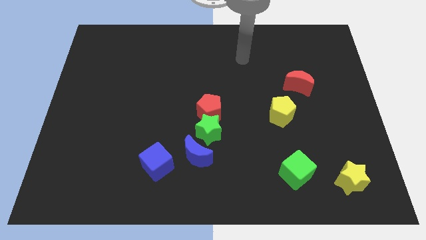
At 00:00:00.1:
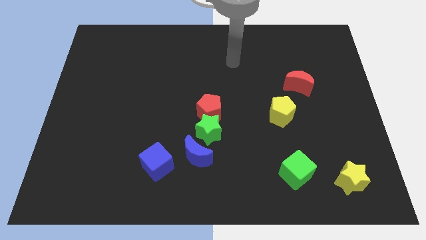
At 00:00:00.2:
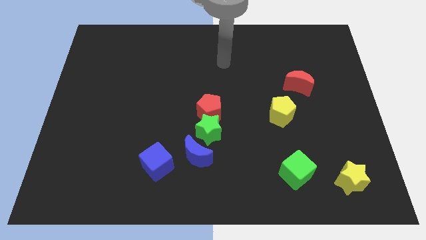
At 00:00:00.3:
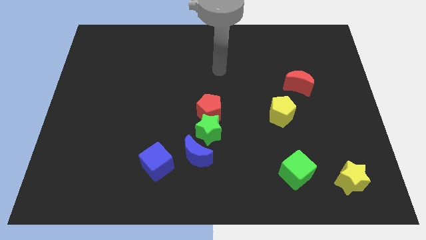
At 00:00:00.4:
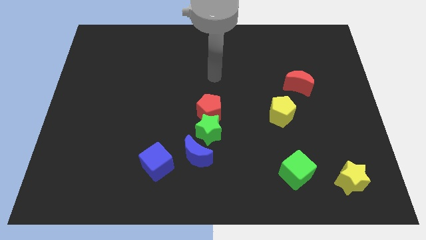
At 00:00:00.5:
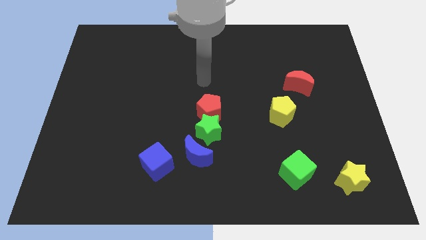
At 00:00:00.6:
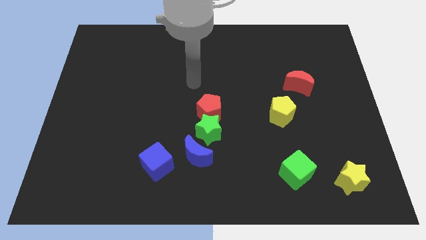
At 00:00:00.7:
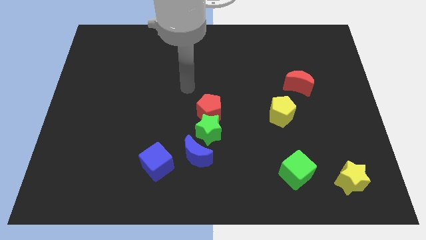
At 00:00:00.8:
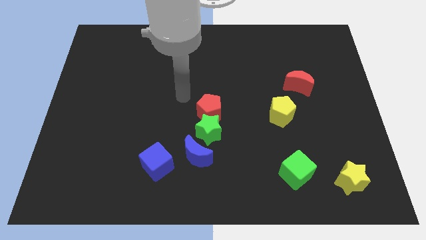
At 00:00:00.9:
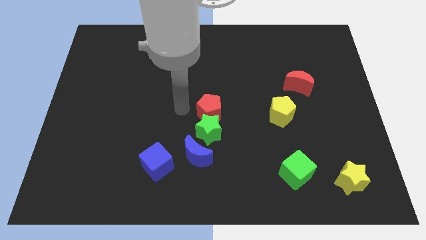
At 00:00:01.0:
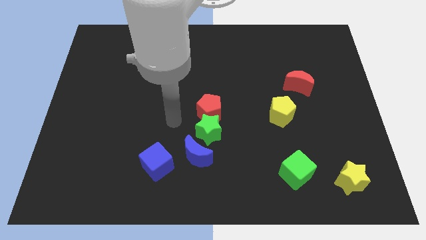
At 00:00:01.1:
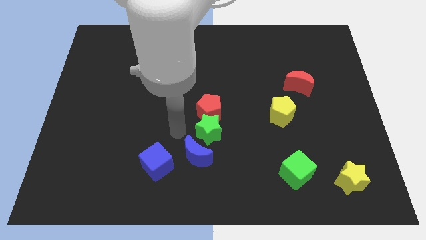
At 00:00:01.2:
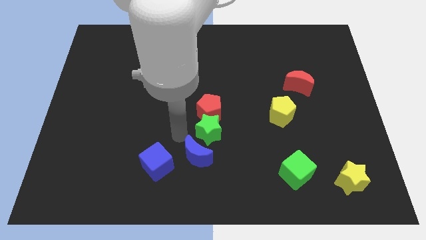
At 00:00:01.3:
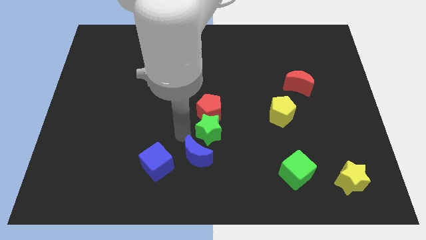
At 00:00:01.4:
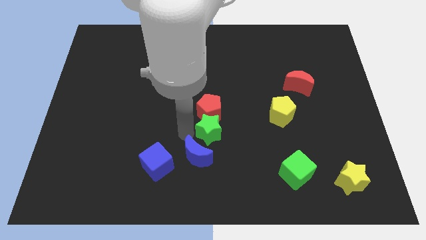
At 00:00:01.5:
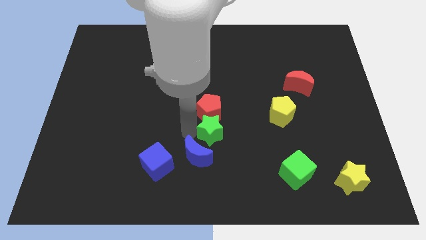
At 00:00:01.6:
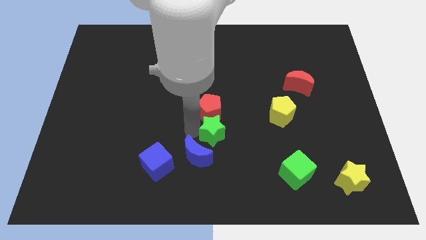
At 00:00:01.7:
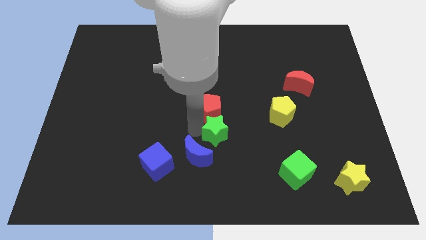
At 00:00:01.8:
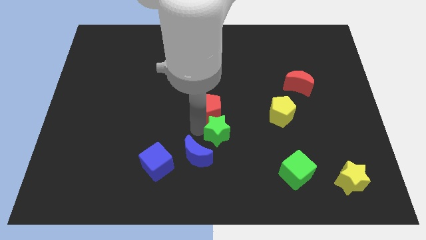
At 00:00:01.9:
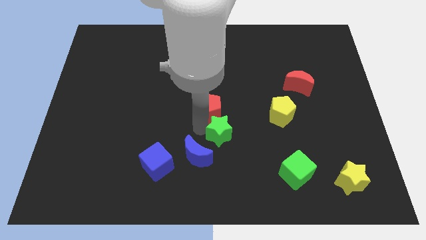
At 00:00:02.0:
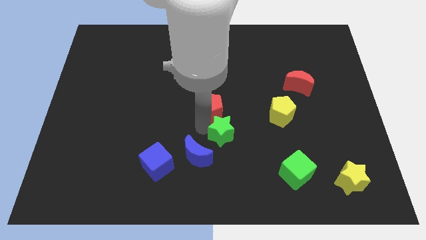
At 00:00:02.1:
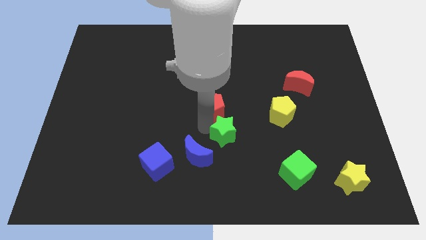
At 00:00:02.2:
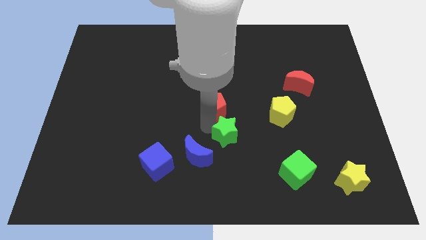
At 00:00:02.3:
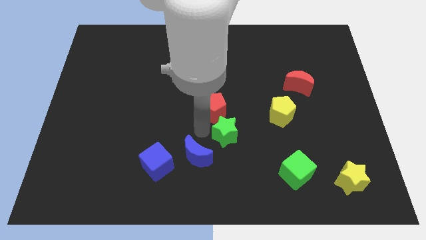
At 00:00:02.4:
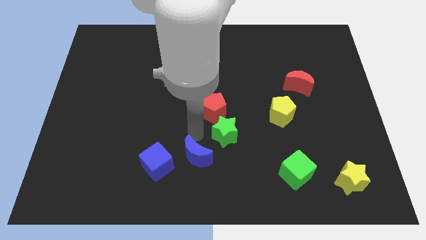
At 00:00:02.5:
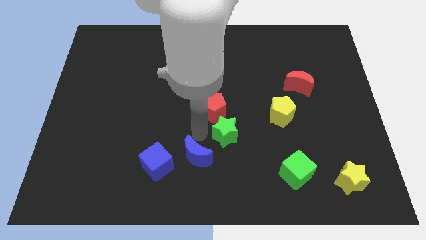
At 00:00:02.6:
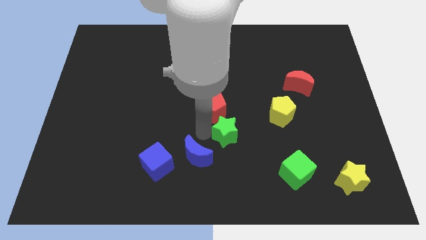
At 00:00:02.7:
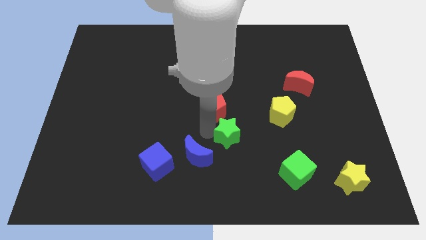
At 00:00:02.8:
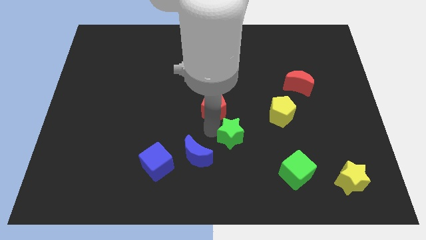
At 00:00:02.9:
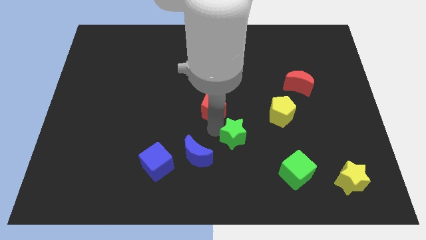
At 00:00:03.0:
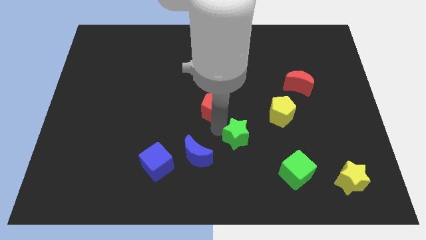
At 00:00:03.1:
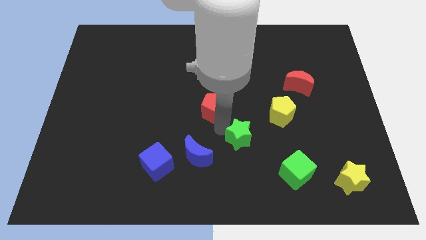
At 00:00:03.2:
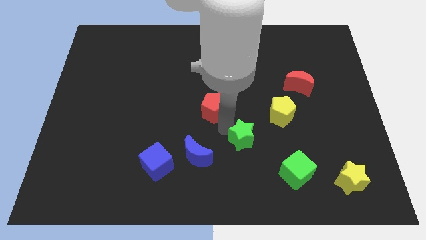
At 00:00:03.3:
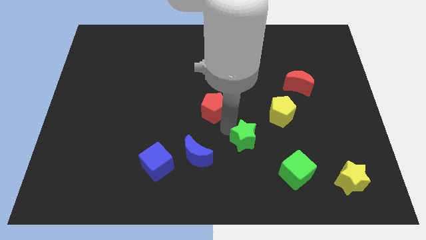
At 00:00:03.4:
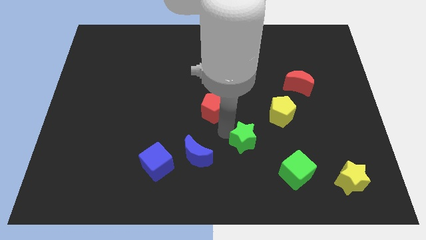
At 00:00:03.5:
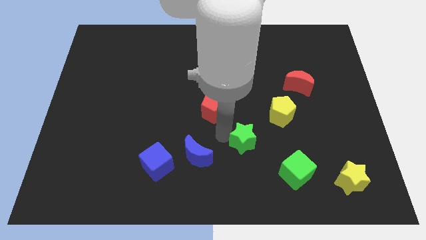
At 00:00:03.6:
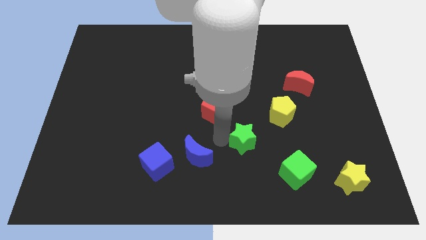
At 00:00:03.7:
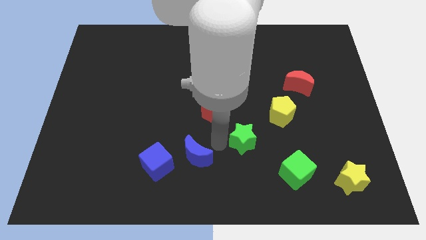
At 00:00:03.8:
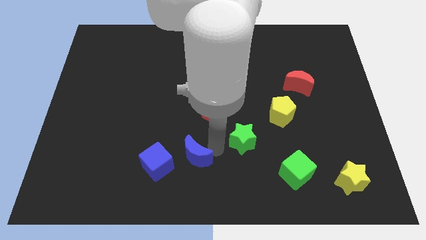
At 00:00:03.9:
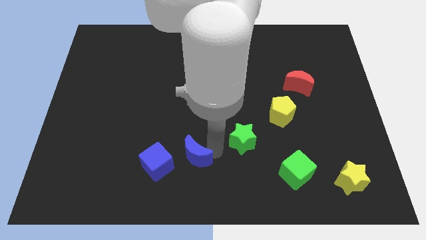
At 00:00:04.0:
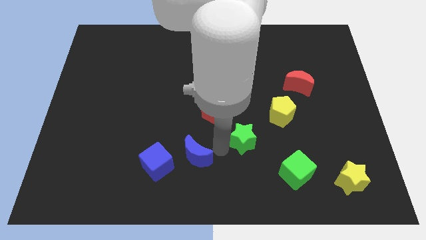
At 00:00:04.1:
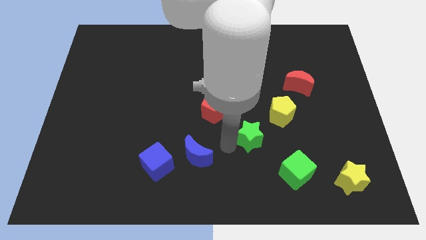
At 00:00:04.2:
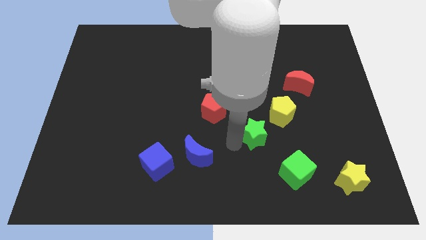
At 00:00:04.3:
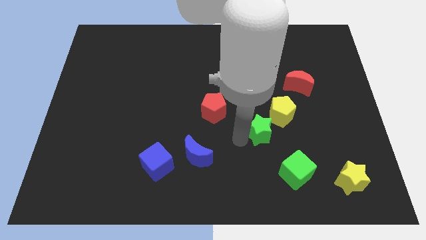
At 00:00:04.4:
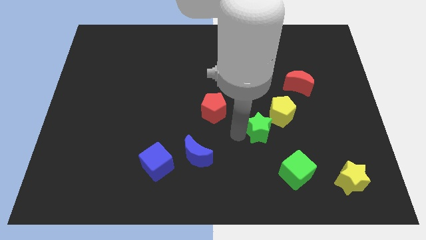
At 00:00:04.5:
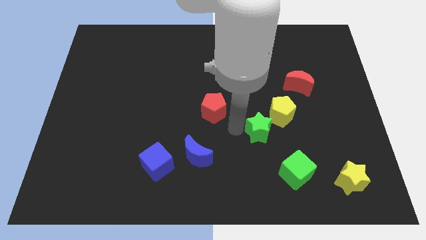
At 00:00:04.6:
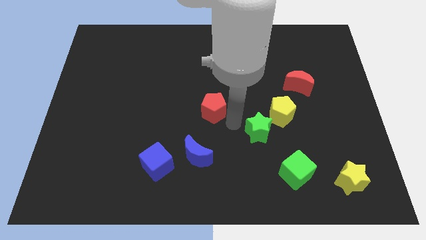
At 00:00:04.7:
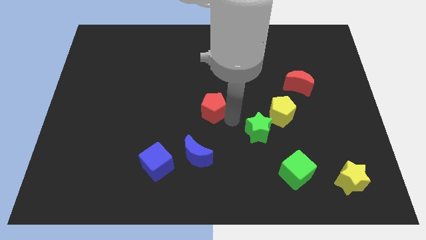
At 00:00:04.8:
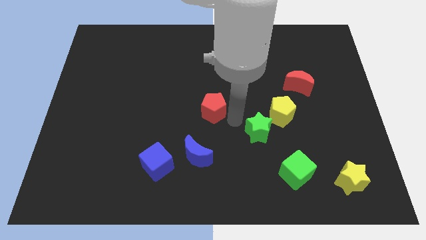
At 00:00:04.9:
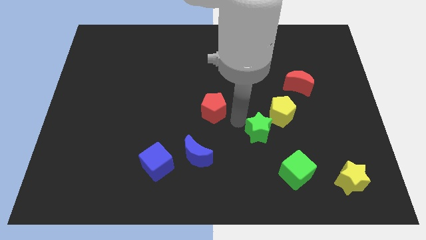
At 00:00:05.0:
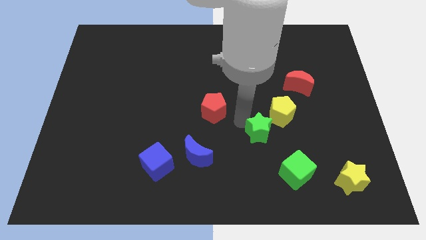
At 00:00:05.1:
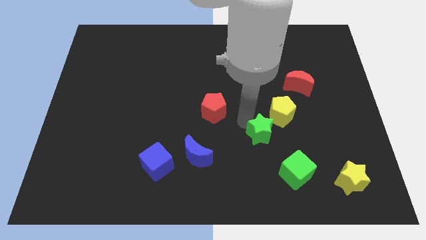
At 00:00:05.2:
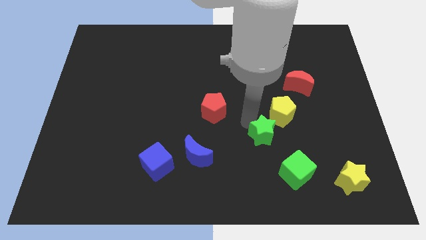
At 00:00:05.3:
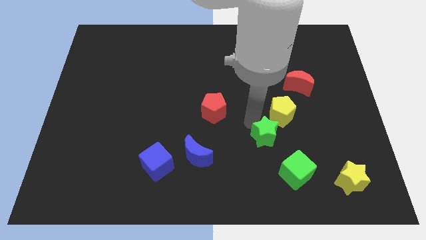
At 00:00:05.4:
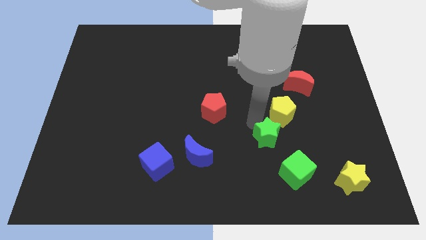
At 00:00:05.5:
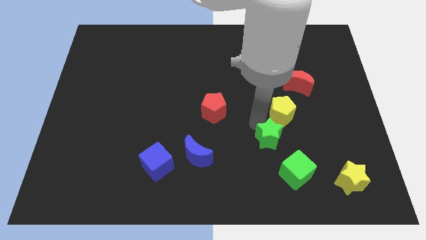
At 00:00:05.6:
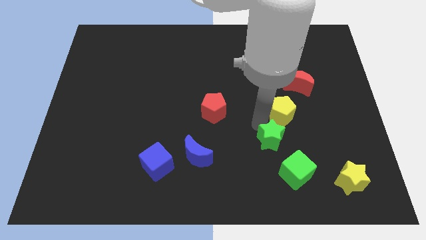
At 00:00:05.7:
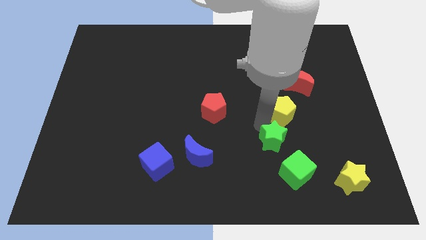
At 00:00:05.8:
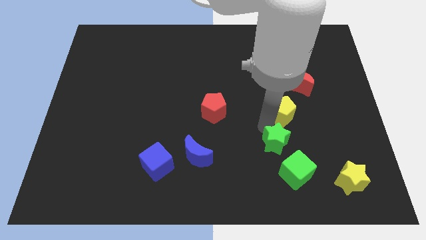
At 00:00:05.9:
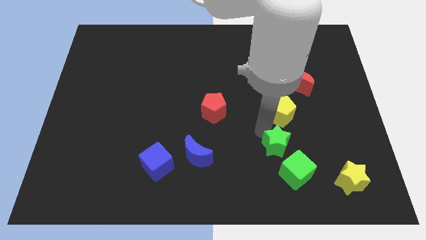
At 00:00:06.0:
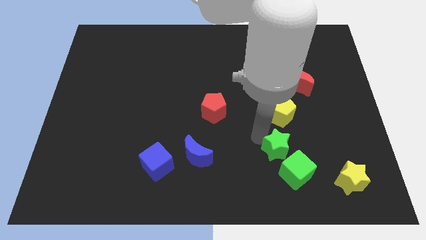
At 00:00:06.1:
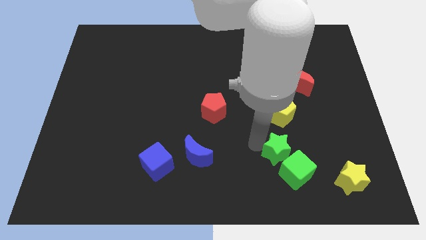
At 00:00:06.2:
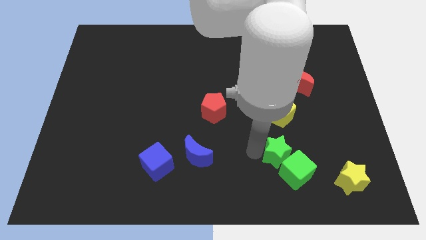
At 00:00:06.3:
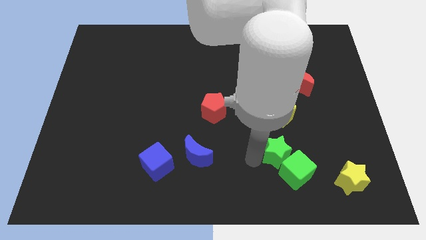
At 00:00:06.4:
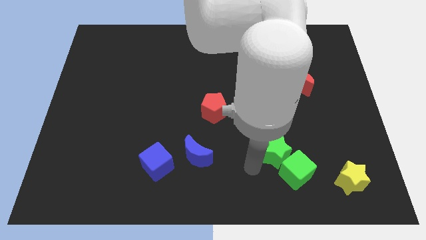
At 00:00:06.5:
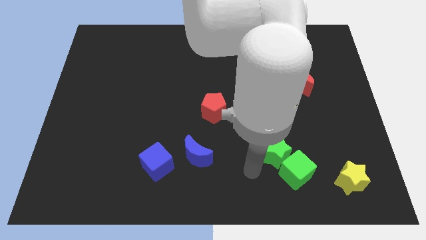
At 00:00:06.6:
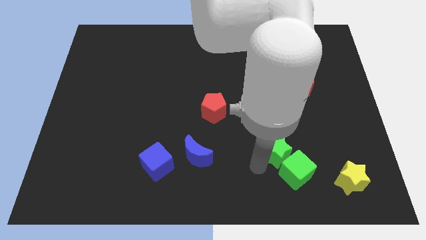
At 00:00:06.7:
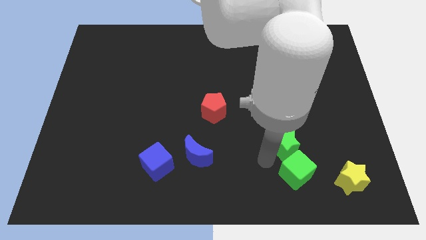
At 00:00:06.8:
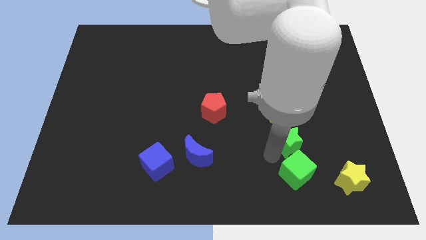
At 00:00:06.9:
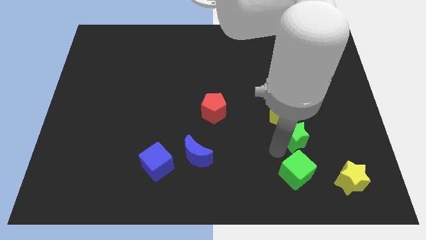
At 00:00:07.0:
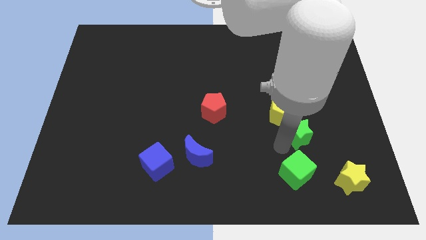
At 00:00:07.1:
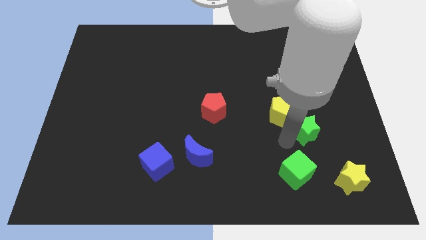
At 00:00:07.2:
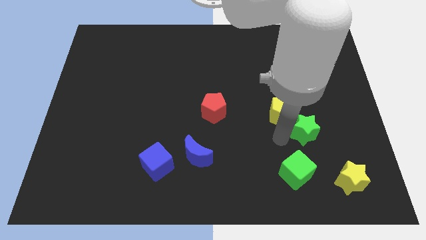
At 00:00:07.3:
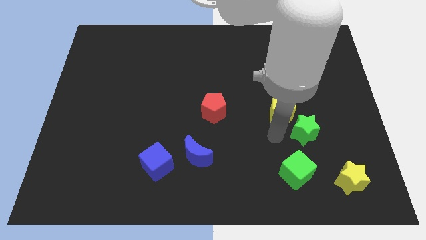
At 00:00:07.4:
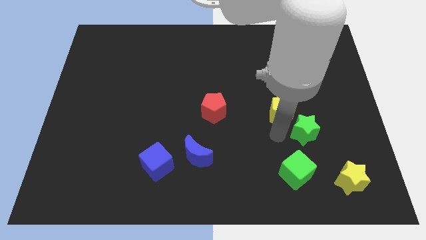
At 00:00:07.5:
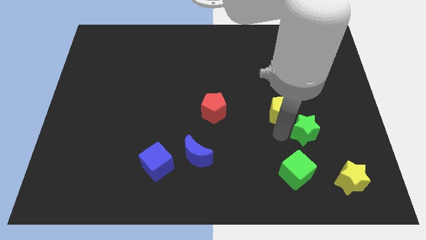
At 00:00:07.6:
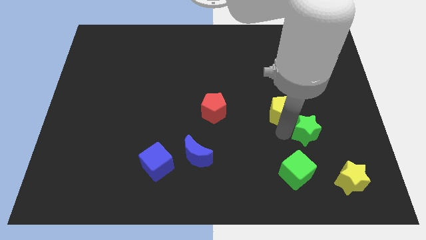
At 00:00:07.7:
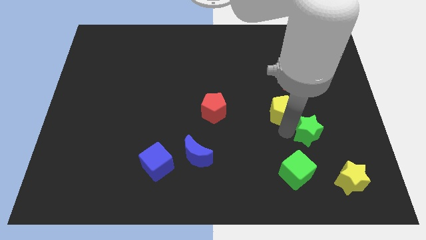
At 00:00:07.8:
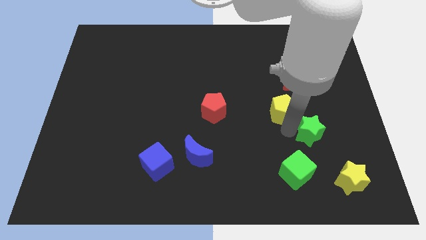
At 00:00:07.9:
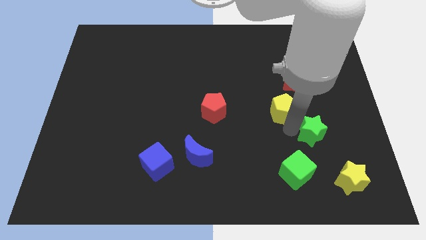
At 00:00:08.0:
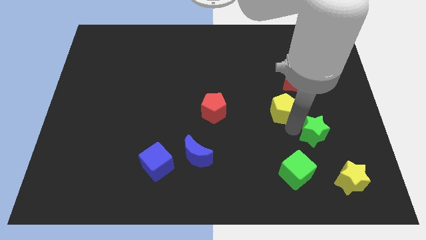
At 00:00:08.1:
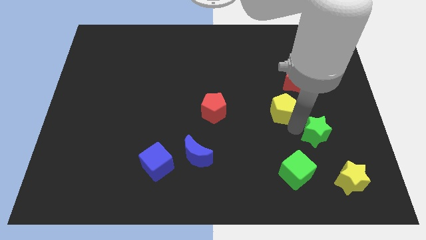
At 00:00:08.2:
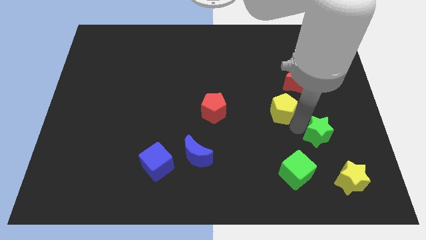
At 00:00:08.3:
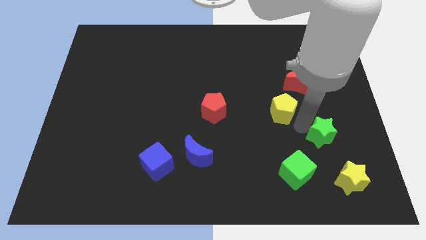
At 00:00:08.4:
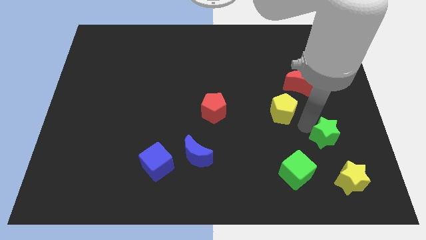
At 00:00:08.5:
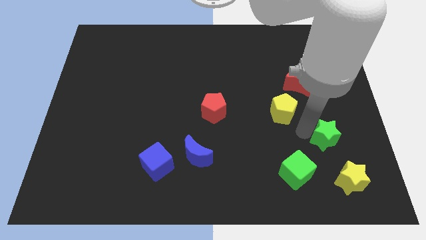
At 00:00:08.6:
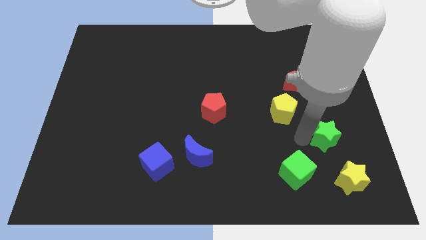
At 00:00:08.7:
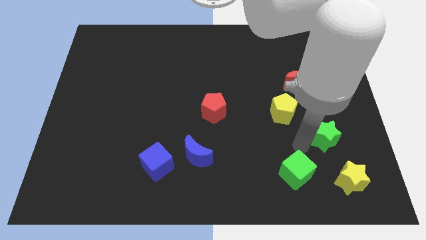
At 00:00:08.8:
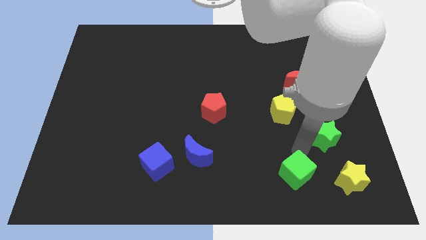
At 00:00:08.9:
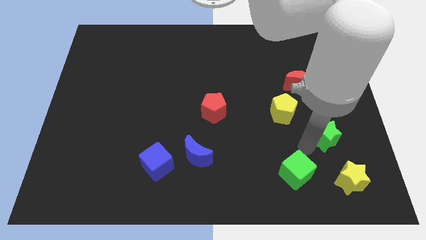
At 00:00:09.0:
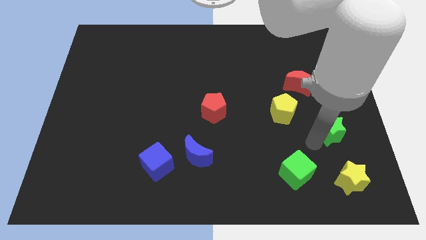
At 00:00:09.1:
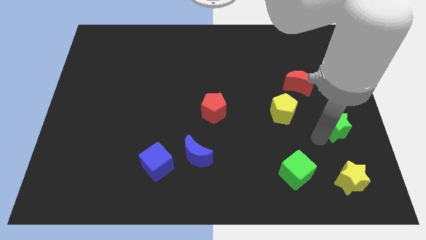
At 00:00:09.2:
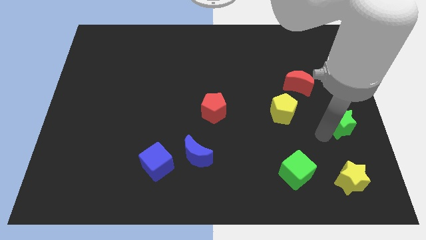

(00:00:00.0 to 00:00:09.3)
slide the green star to the center right
